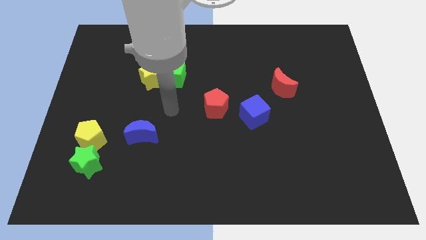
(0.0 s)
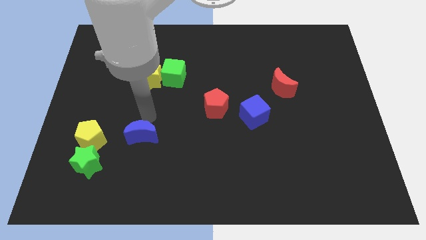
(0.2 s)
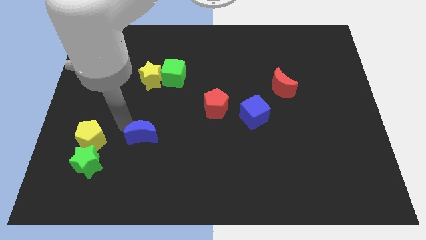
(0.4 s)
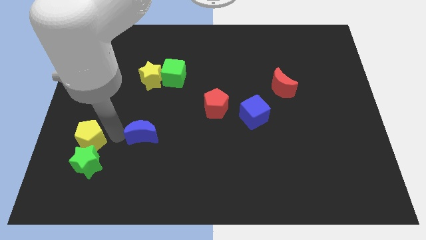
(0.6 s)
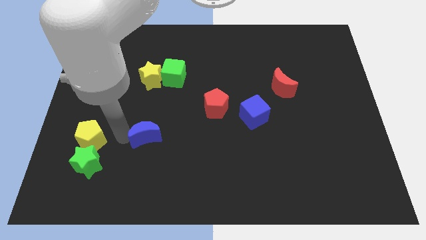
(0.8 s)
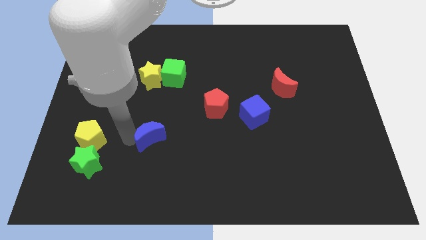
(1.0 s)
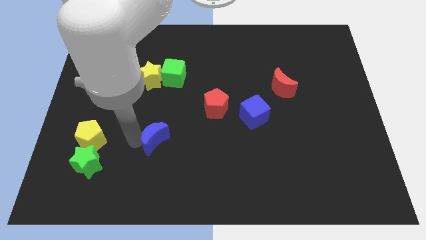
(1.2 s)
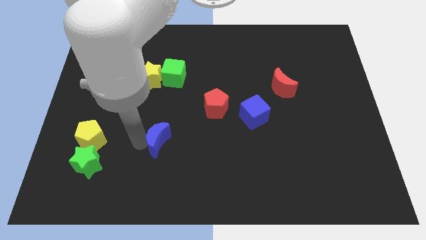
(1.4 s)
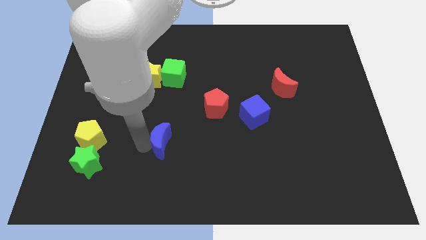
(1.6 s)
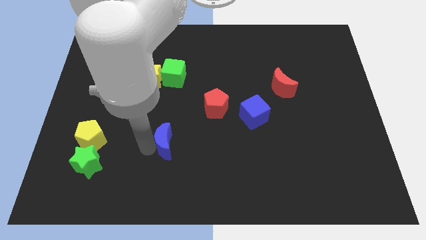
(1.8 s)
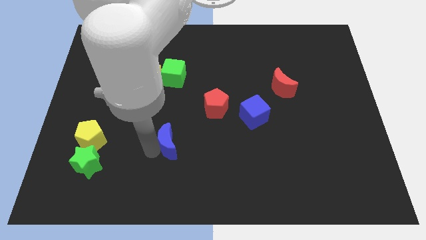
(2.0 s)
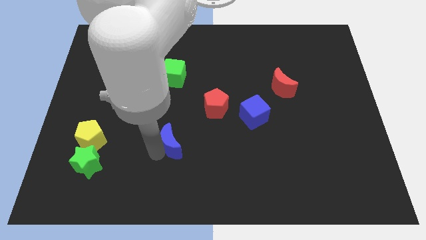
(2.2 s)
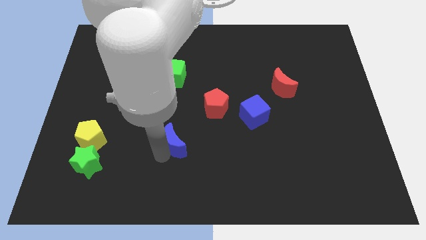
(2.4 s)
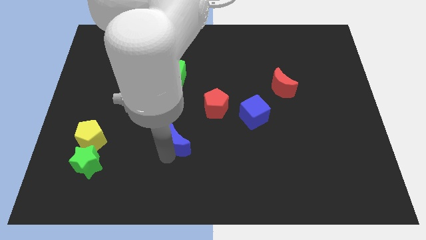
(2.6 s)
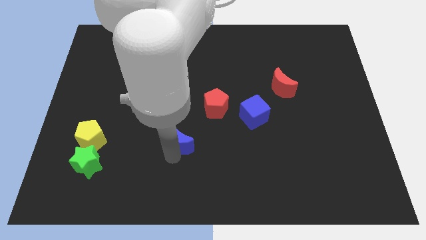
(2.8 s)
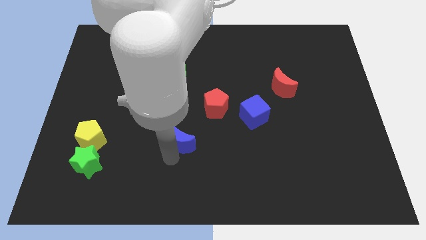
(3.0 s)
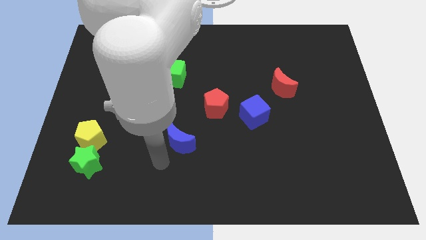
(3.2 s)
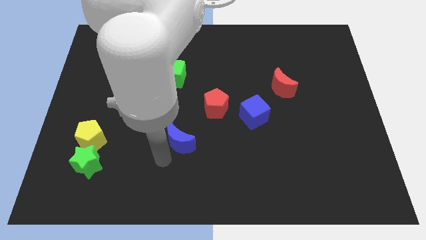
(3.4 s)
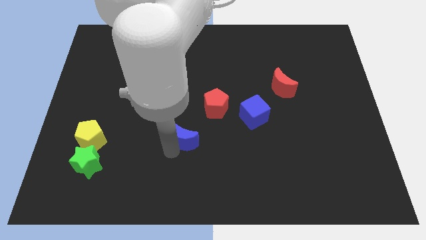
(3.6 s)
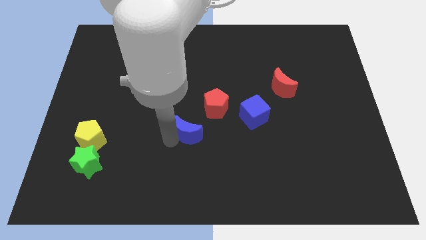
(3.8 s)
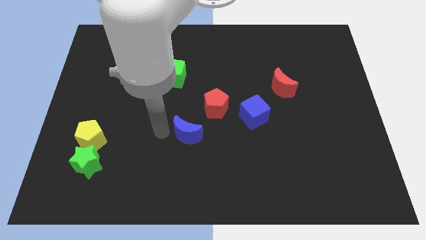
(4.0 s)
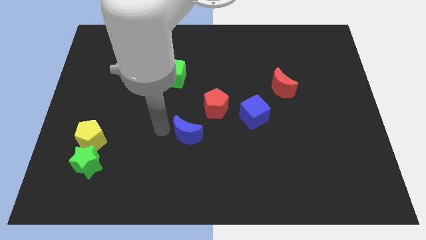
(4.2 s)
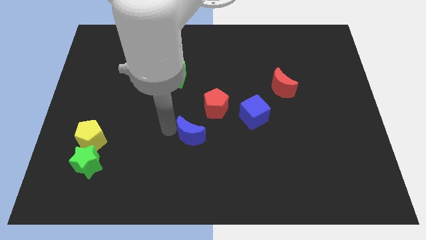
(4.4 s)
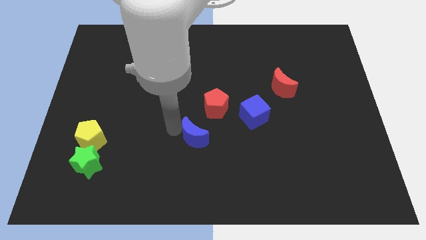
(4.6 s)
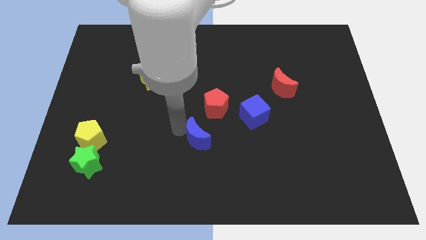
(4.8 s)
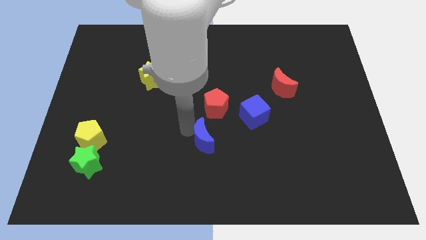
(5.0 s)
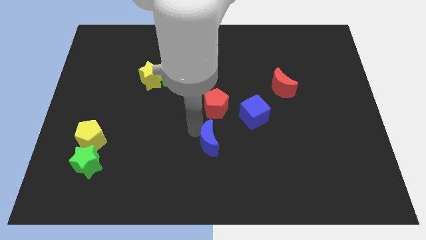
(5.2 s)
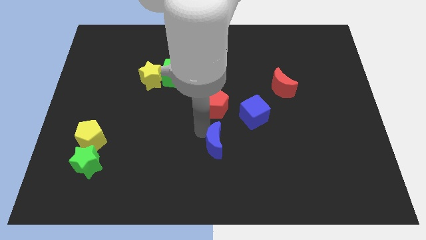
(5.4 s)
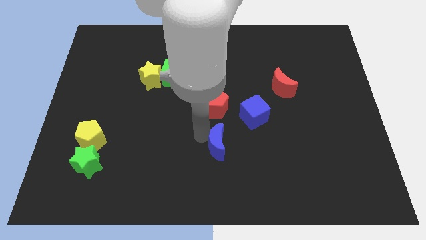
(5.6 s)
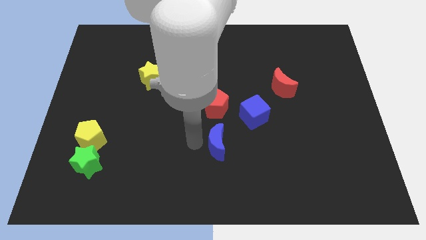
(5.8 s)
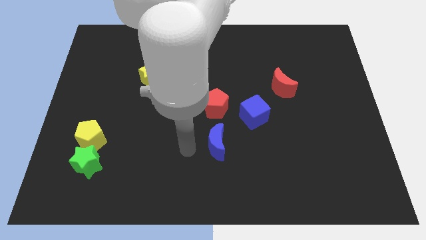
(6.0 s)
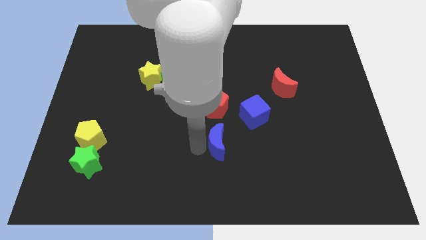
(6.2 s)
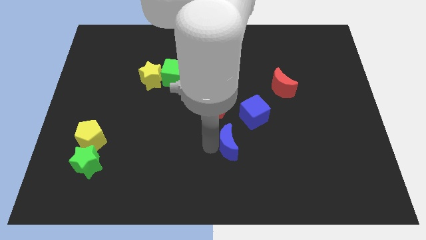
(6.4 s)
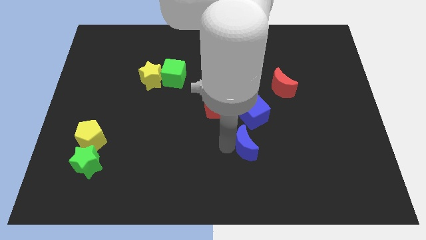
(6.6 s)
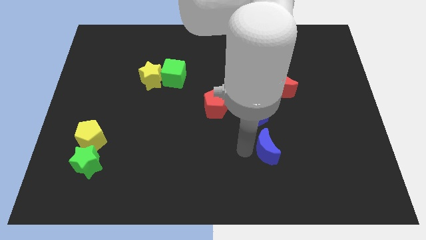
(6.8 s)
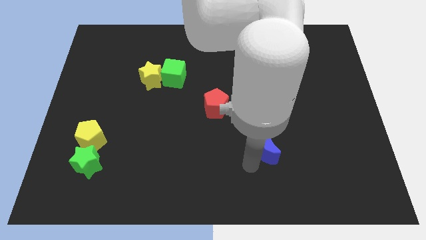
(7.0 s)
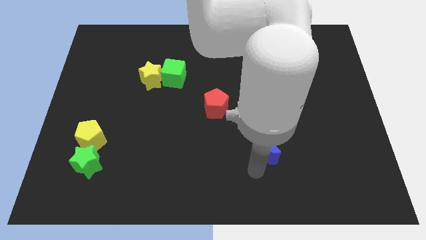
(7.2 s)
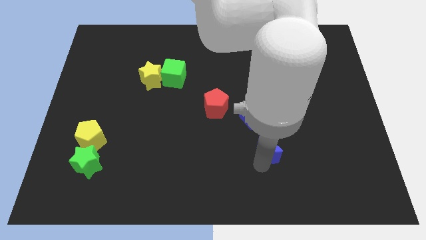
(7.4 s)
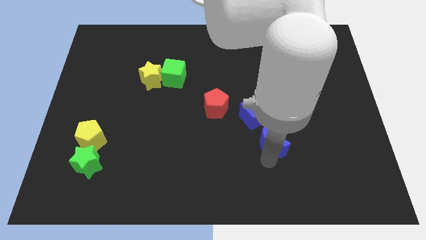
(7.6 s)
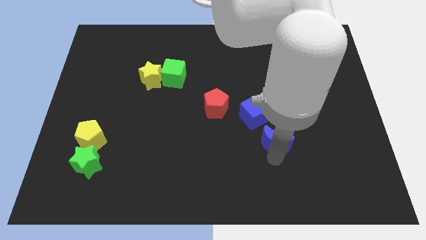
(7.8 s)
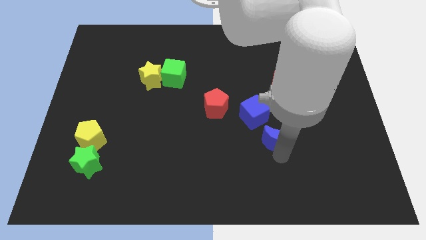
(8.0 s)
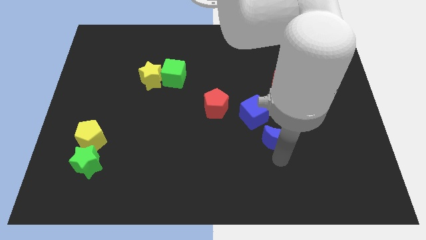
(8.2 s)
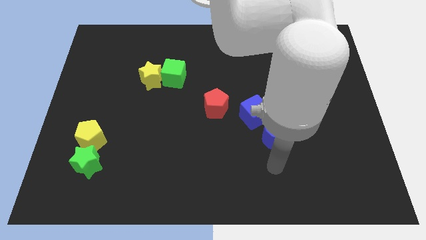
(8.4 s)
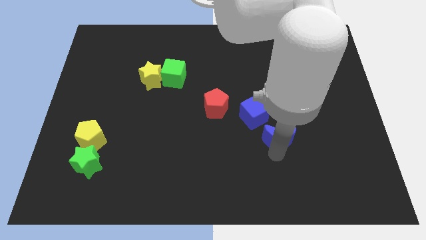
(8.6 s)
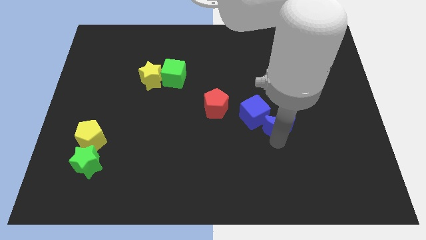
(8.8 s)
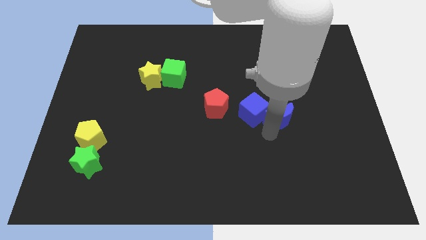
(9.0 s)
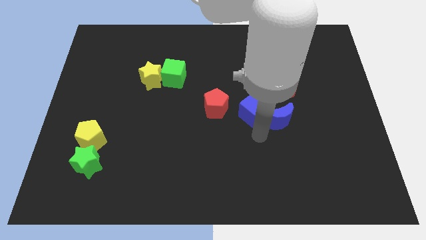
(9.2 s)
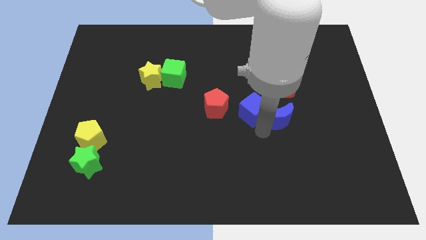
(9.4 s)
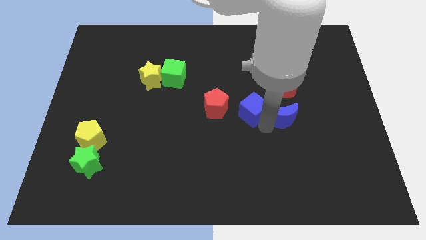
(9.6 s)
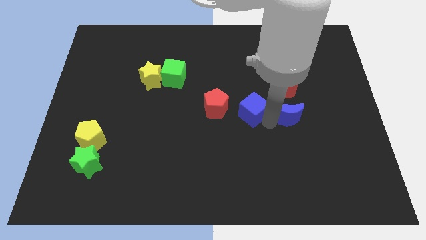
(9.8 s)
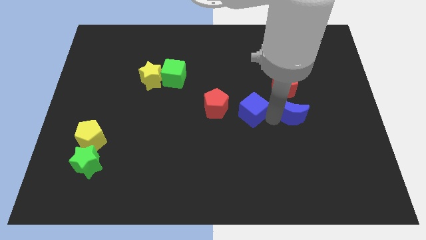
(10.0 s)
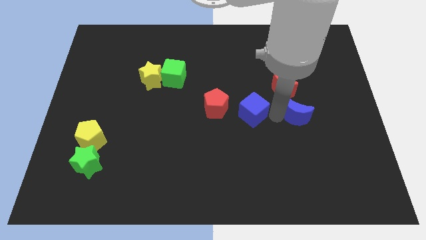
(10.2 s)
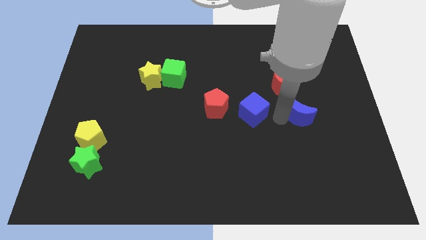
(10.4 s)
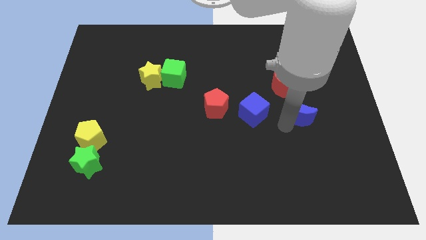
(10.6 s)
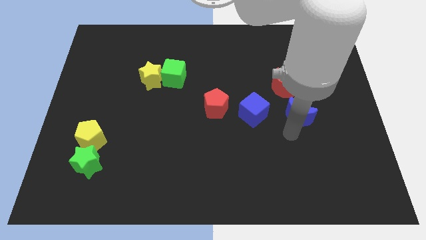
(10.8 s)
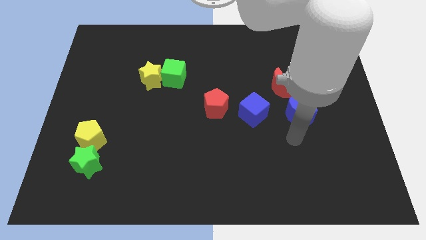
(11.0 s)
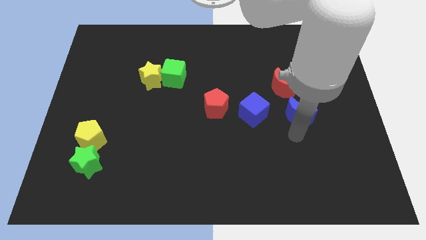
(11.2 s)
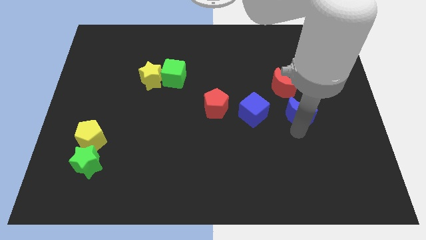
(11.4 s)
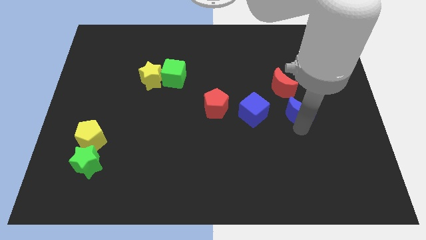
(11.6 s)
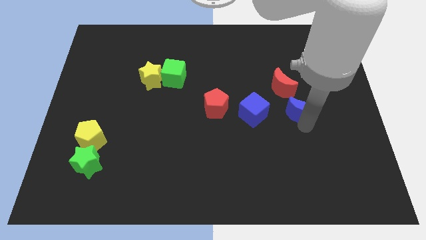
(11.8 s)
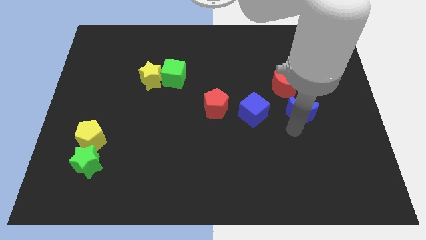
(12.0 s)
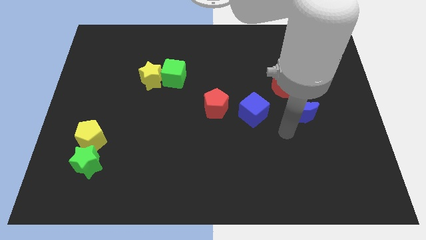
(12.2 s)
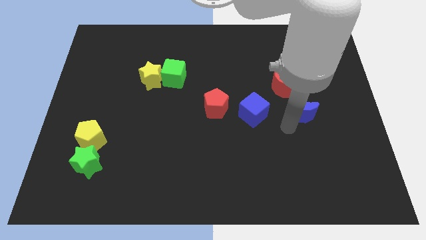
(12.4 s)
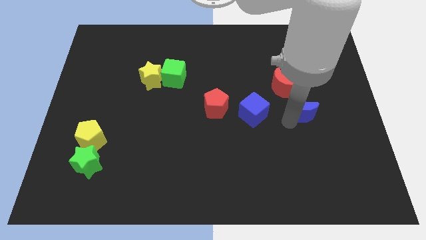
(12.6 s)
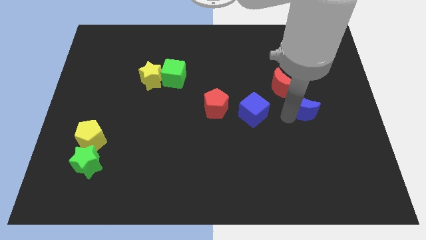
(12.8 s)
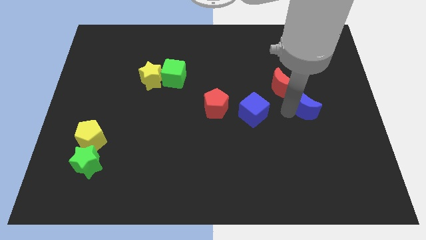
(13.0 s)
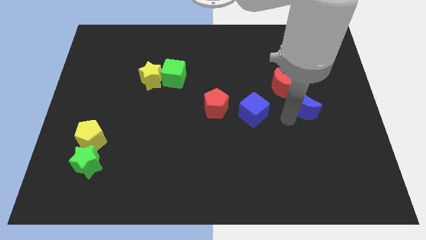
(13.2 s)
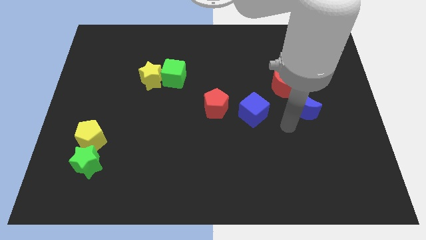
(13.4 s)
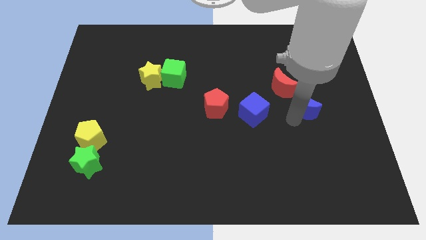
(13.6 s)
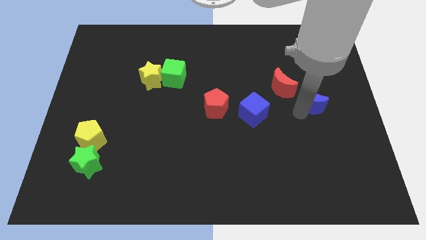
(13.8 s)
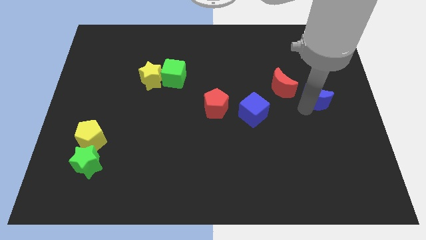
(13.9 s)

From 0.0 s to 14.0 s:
slide the blue moon just right of the red moon

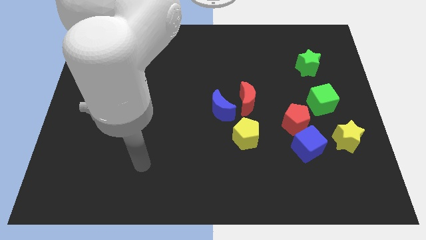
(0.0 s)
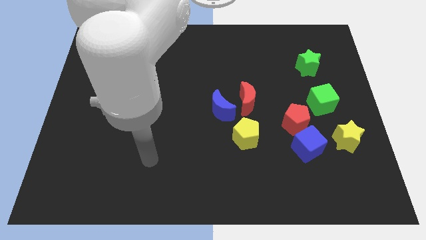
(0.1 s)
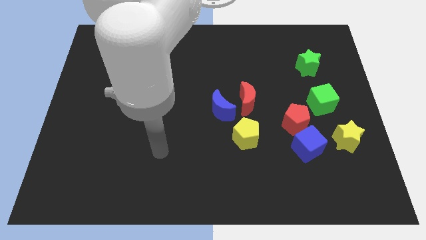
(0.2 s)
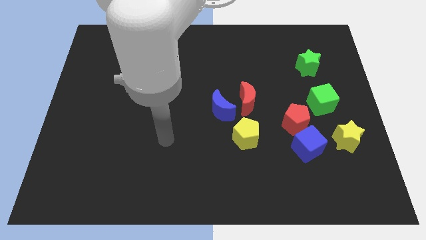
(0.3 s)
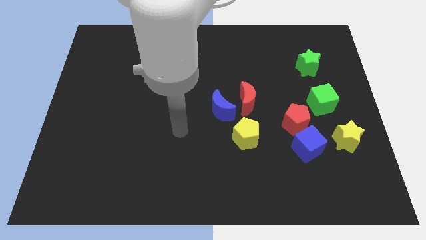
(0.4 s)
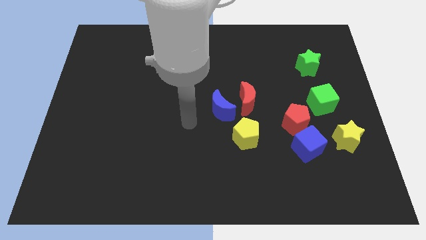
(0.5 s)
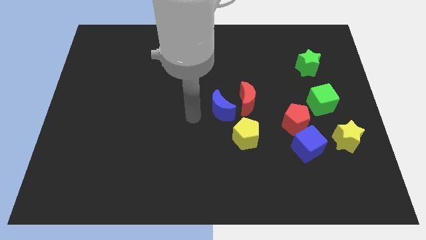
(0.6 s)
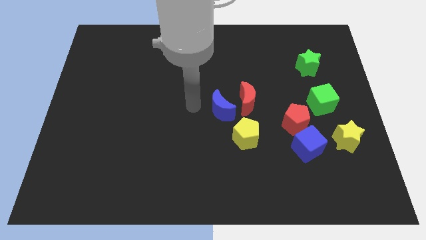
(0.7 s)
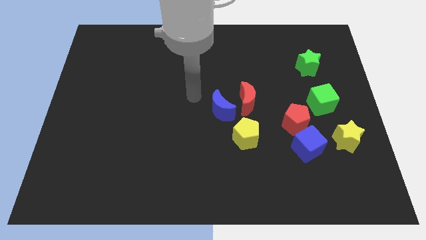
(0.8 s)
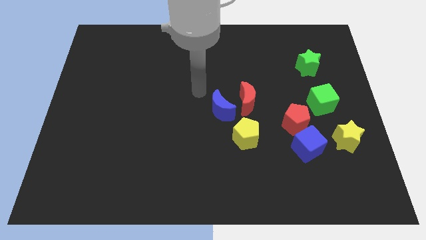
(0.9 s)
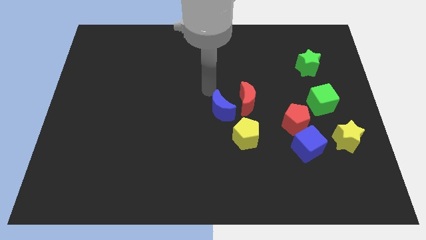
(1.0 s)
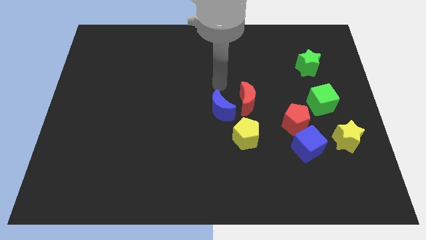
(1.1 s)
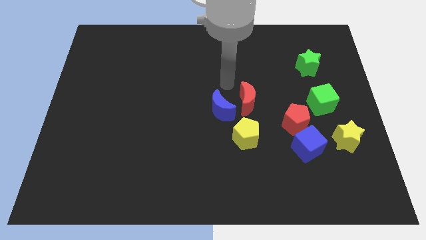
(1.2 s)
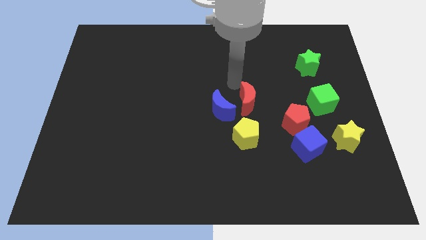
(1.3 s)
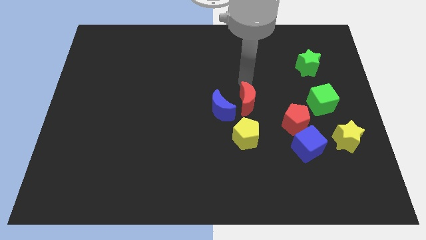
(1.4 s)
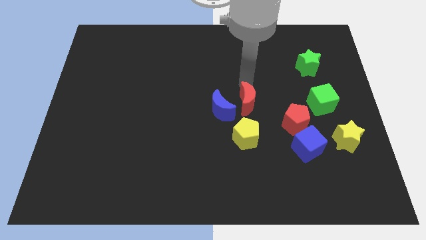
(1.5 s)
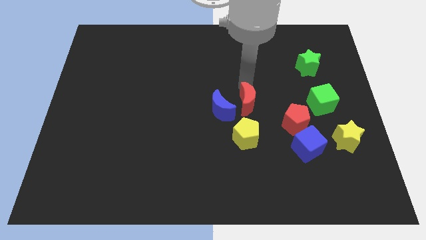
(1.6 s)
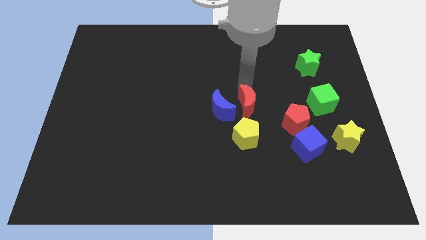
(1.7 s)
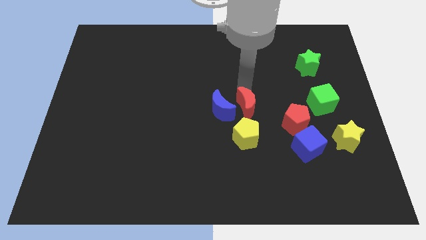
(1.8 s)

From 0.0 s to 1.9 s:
put the red moon left of the red pentagon
